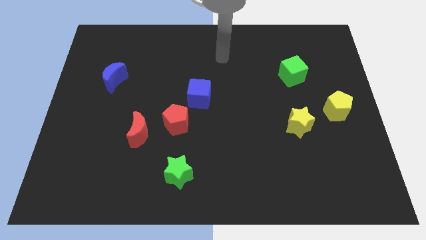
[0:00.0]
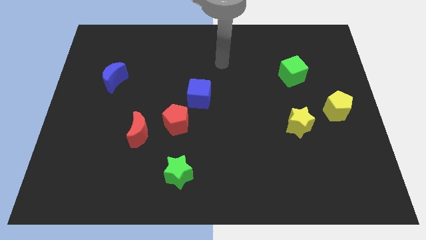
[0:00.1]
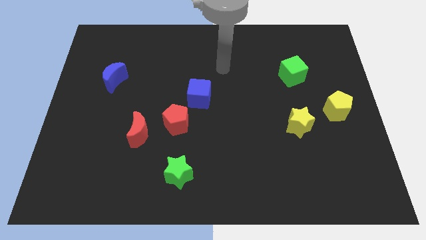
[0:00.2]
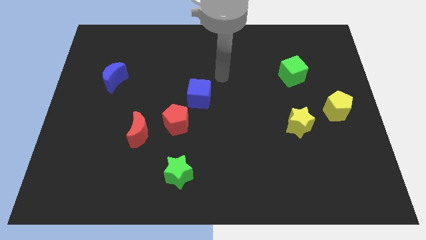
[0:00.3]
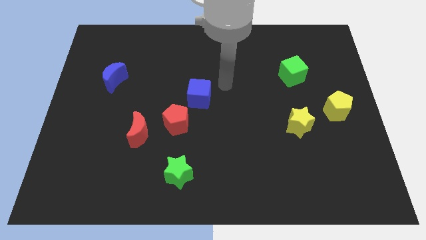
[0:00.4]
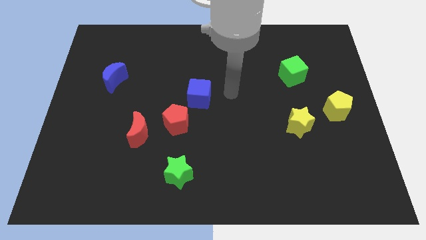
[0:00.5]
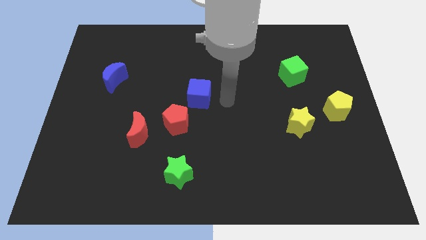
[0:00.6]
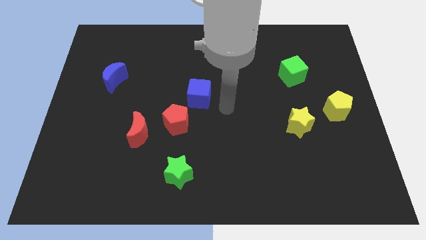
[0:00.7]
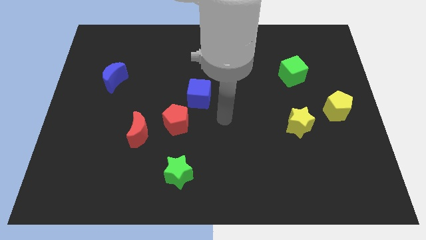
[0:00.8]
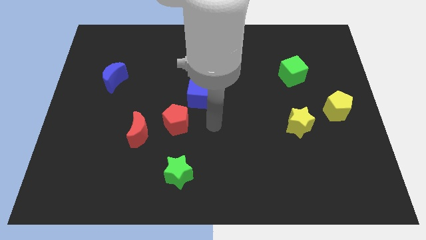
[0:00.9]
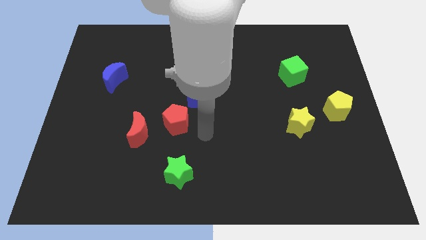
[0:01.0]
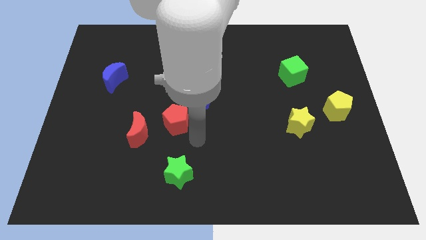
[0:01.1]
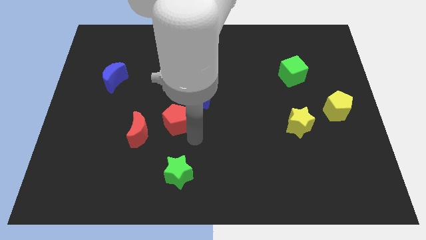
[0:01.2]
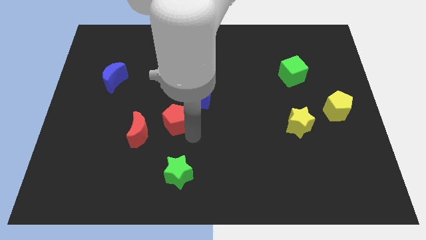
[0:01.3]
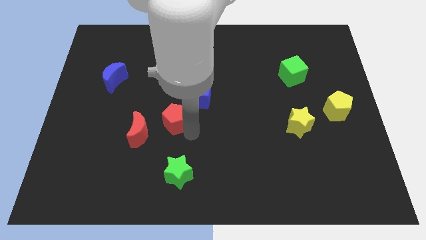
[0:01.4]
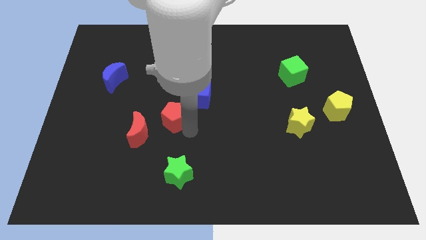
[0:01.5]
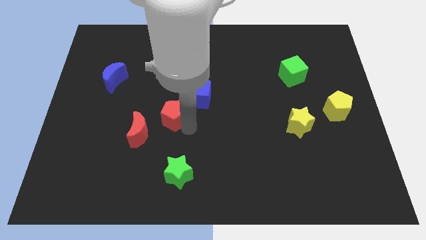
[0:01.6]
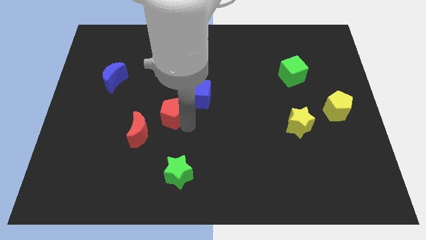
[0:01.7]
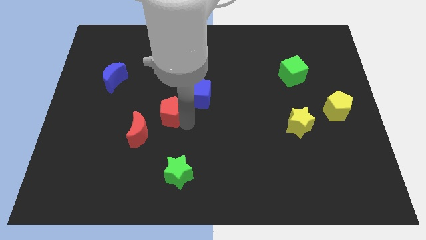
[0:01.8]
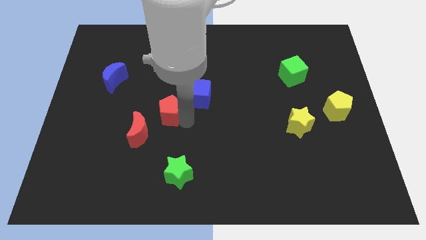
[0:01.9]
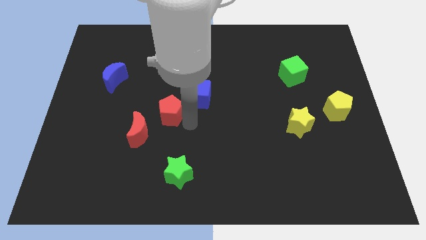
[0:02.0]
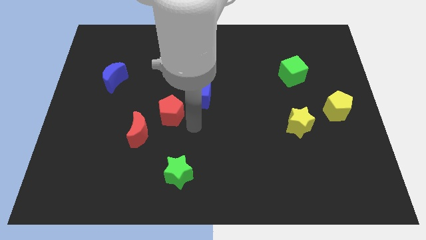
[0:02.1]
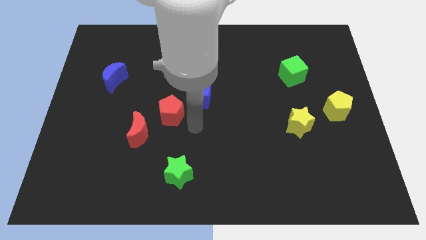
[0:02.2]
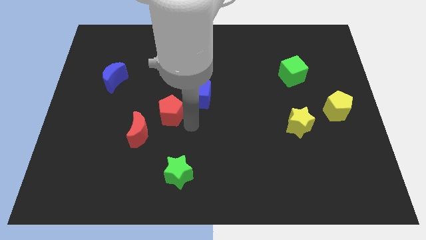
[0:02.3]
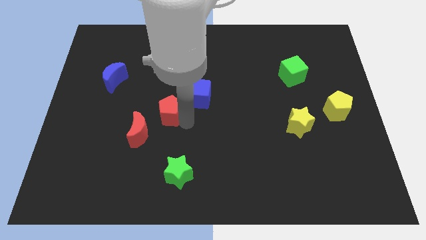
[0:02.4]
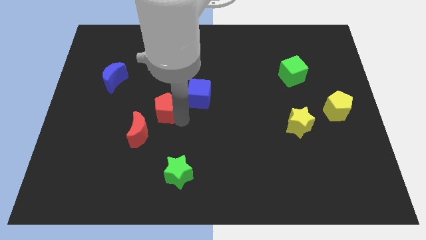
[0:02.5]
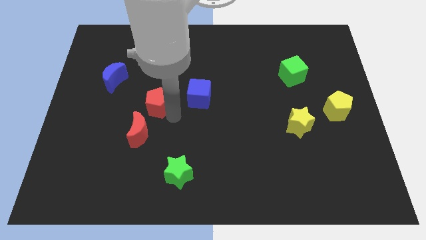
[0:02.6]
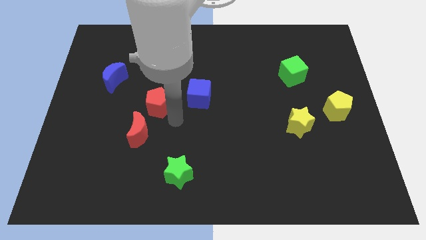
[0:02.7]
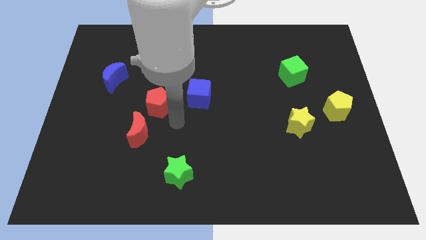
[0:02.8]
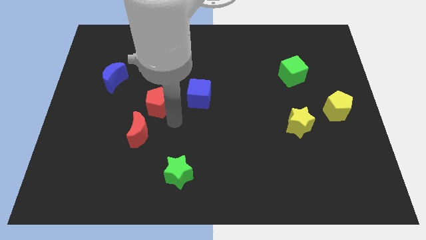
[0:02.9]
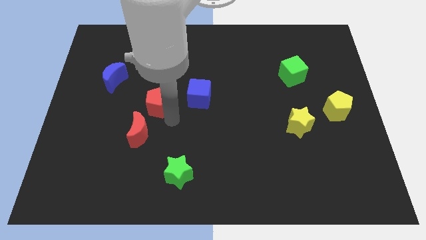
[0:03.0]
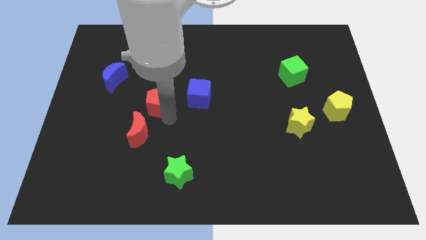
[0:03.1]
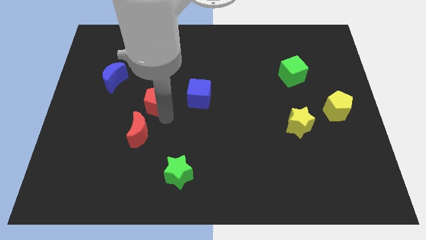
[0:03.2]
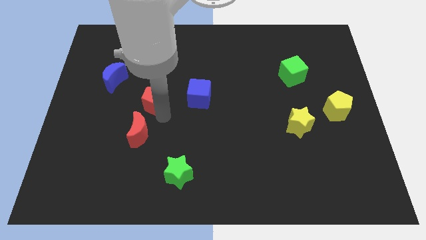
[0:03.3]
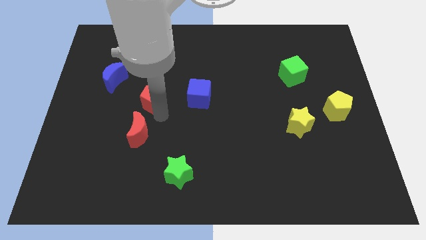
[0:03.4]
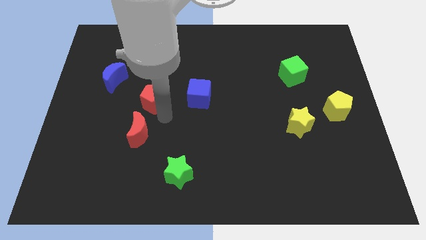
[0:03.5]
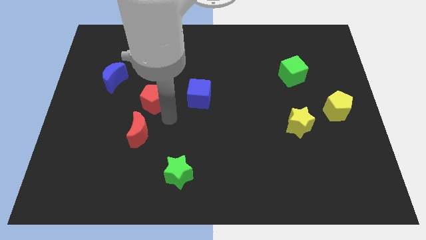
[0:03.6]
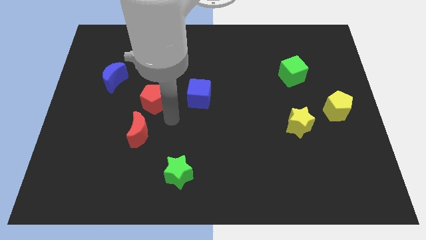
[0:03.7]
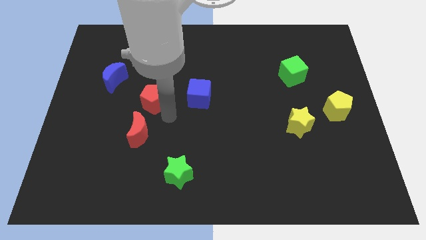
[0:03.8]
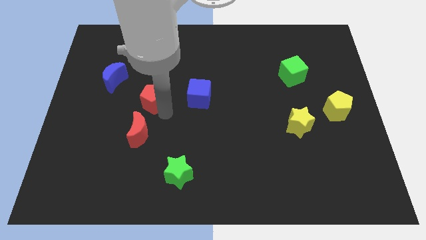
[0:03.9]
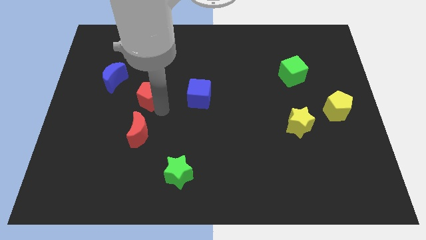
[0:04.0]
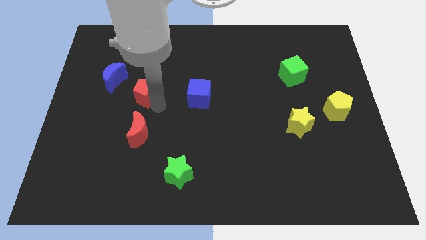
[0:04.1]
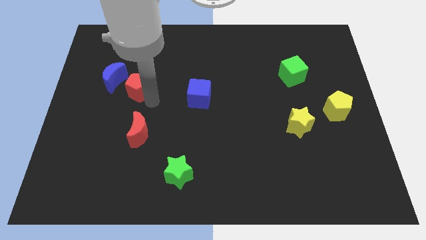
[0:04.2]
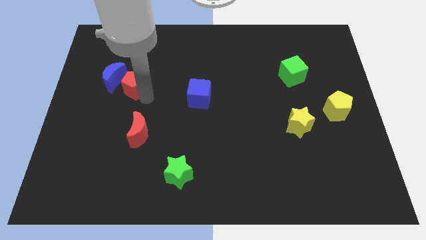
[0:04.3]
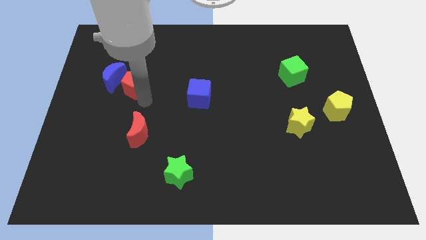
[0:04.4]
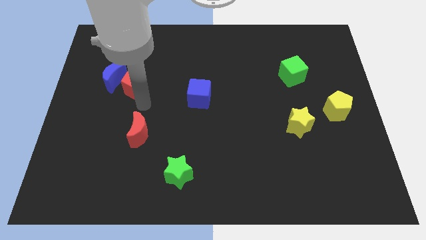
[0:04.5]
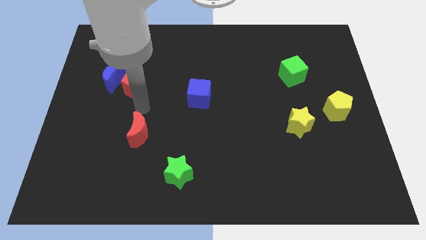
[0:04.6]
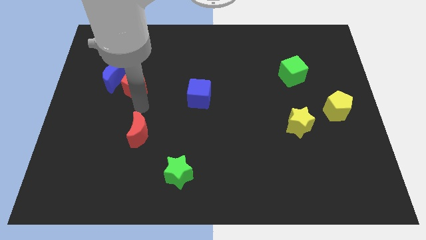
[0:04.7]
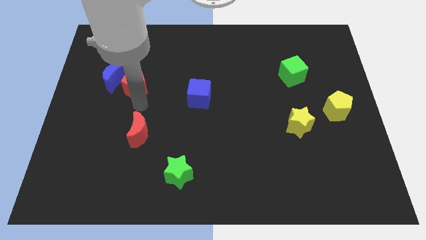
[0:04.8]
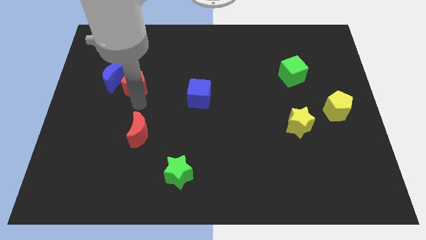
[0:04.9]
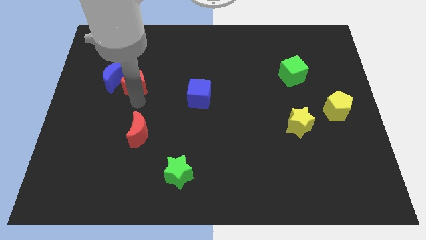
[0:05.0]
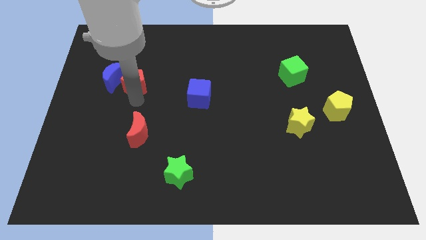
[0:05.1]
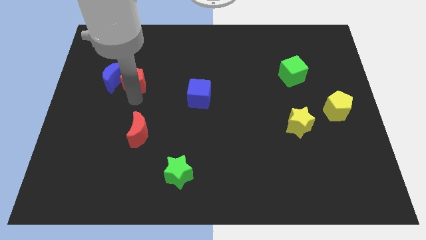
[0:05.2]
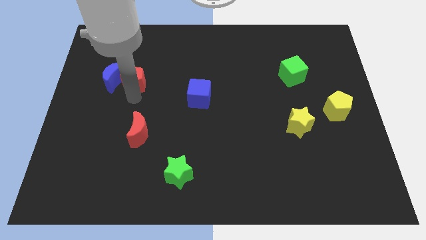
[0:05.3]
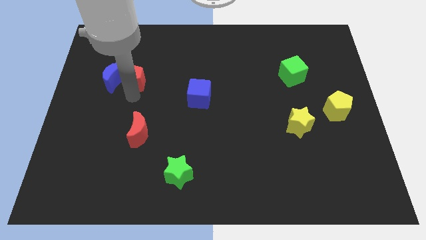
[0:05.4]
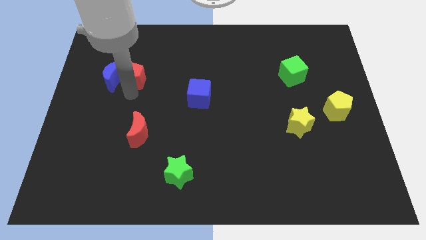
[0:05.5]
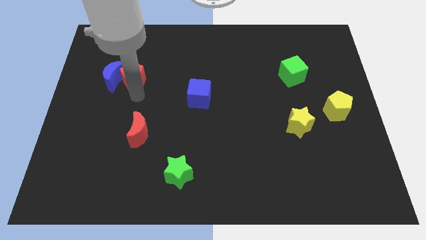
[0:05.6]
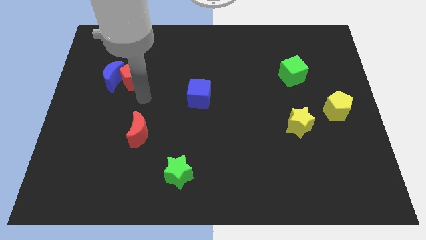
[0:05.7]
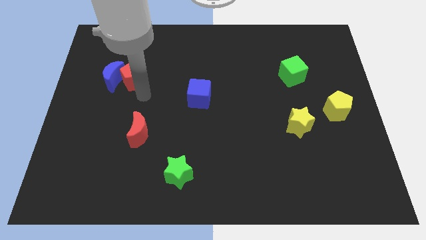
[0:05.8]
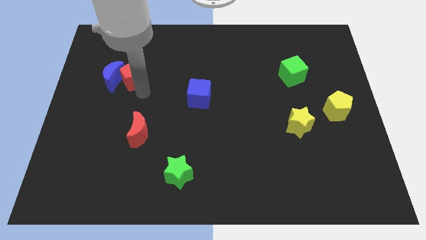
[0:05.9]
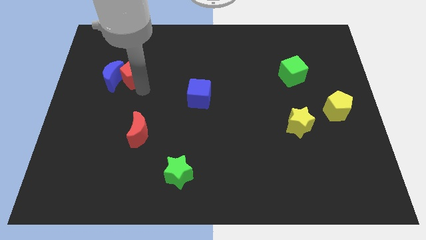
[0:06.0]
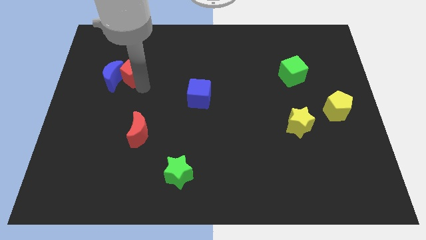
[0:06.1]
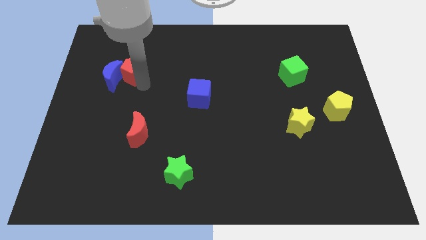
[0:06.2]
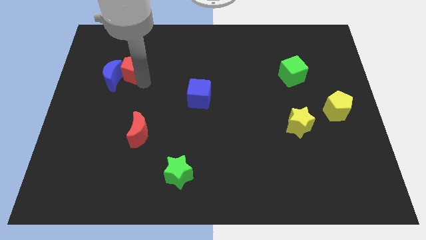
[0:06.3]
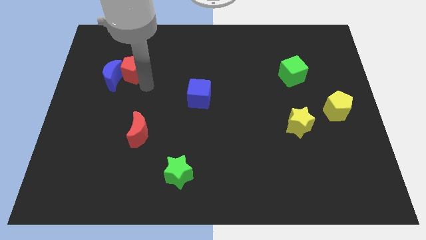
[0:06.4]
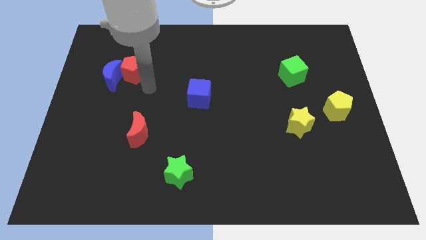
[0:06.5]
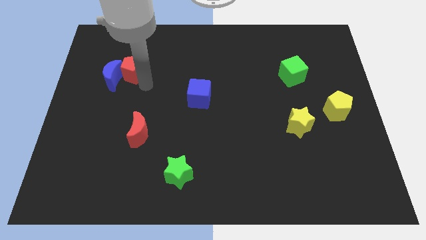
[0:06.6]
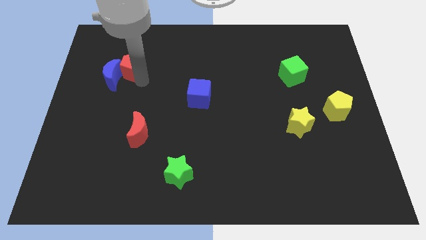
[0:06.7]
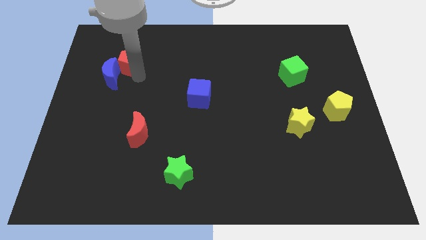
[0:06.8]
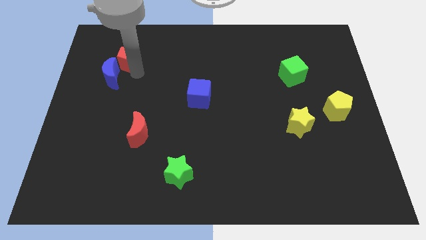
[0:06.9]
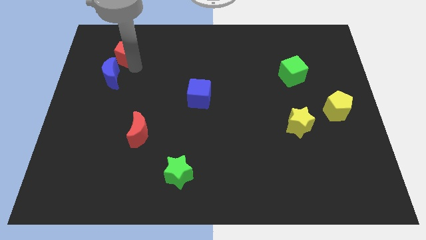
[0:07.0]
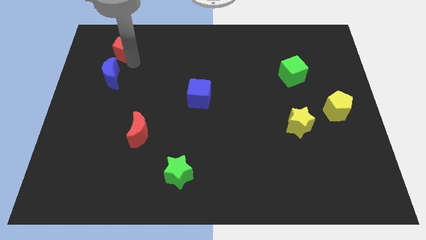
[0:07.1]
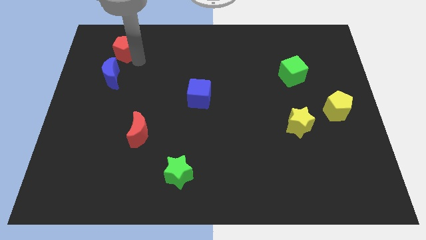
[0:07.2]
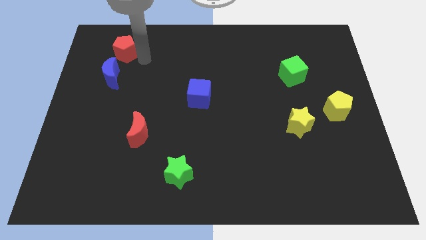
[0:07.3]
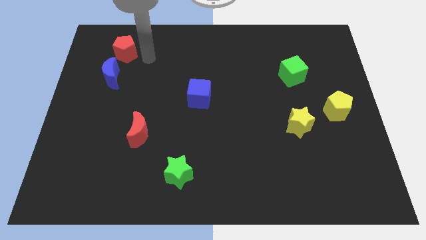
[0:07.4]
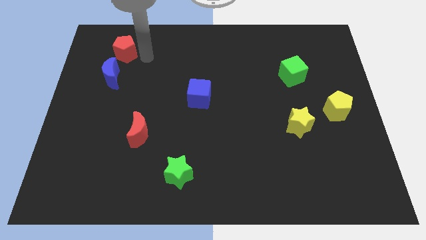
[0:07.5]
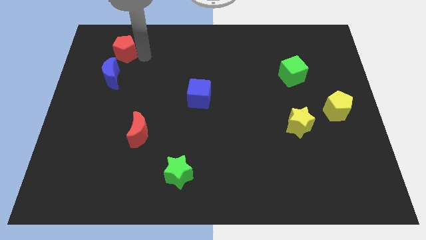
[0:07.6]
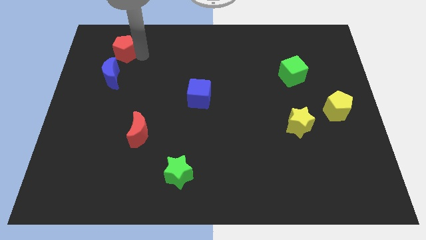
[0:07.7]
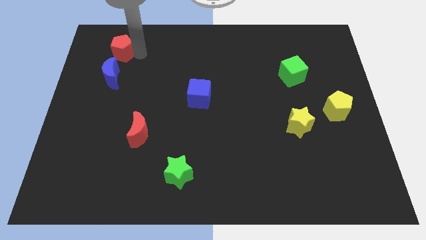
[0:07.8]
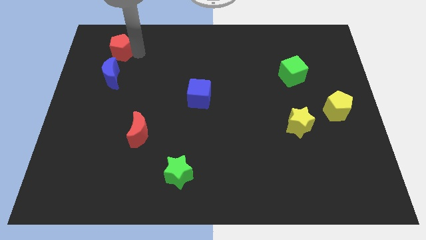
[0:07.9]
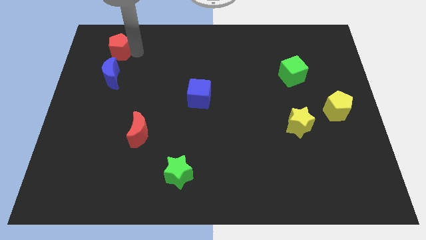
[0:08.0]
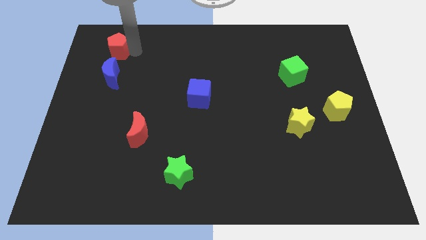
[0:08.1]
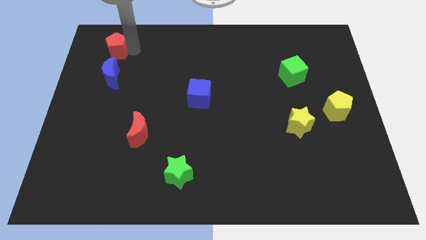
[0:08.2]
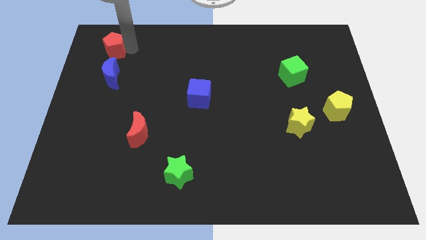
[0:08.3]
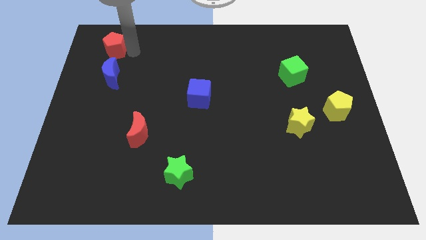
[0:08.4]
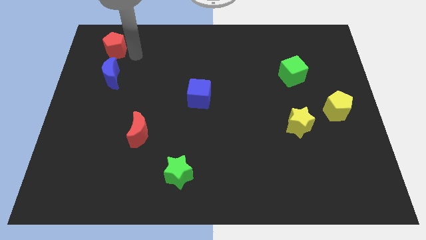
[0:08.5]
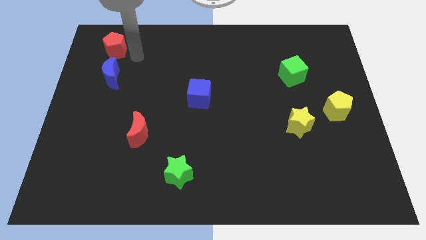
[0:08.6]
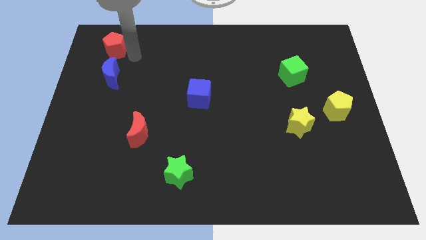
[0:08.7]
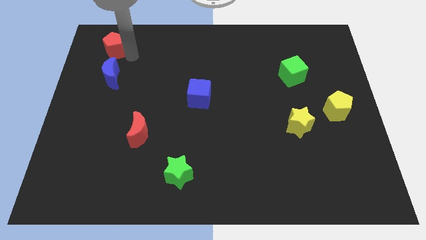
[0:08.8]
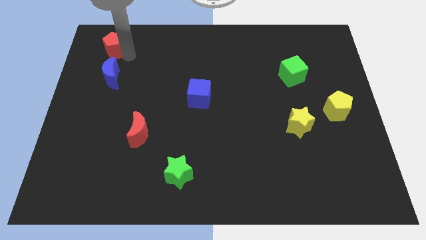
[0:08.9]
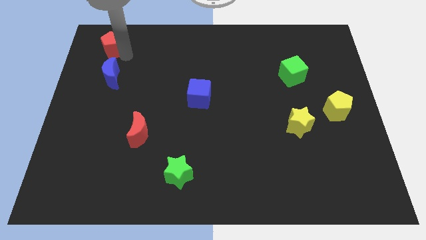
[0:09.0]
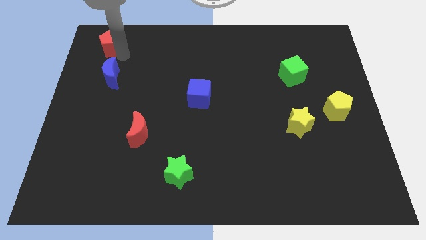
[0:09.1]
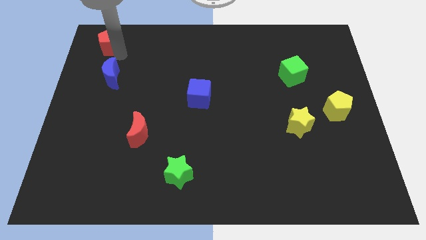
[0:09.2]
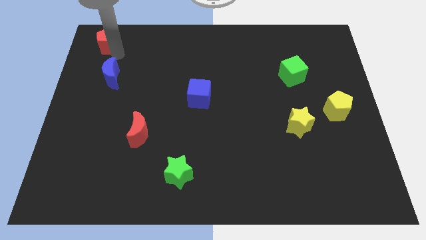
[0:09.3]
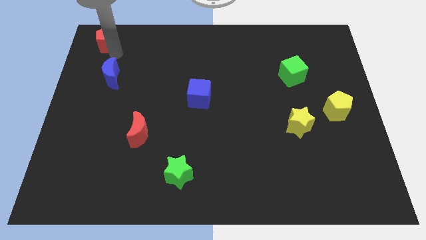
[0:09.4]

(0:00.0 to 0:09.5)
slide the red pentagon to the upper left corner
